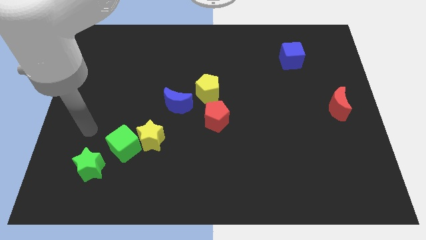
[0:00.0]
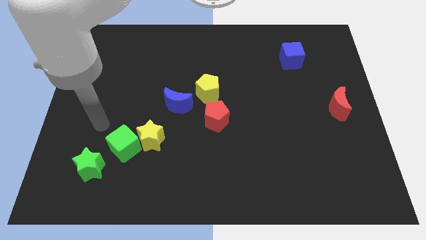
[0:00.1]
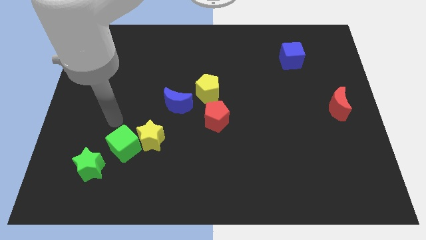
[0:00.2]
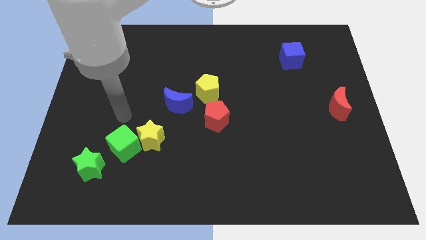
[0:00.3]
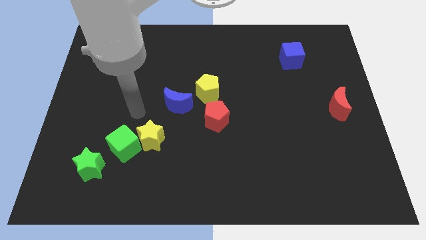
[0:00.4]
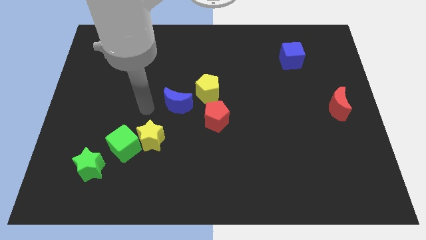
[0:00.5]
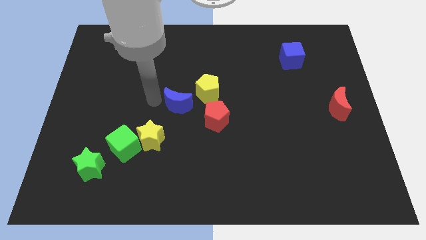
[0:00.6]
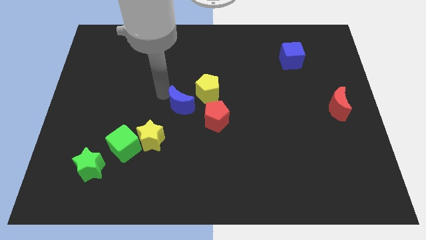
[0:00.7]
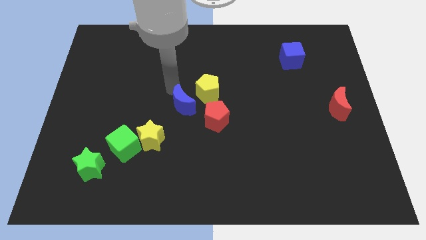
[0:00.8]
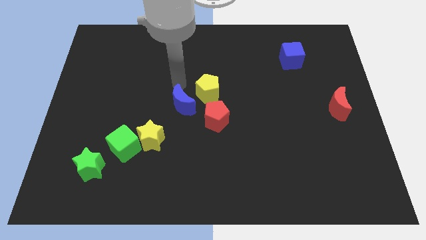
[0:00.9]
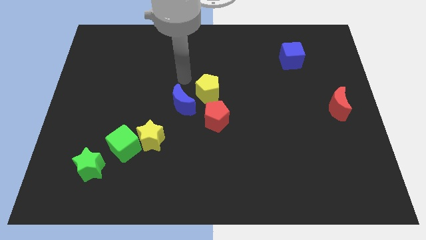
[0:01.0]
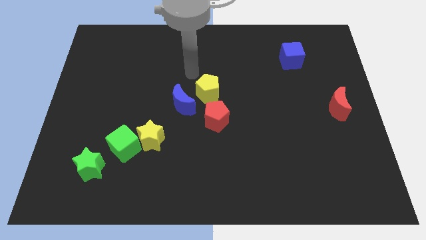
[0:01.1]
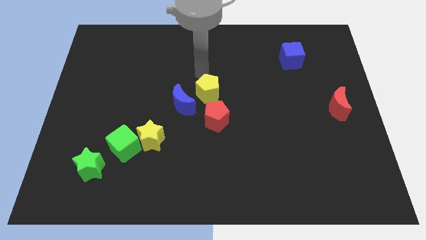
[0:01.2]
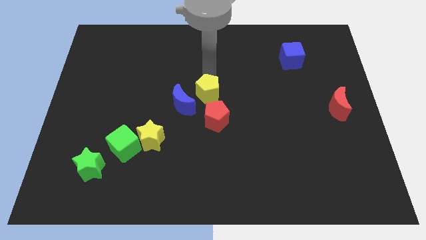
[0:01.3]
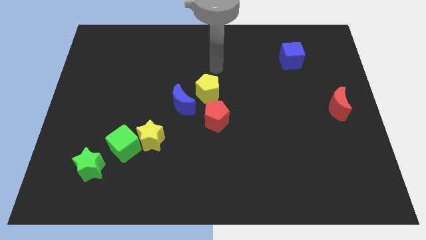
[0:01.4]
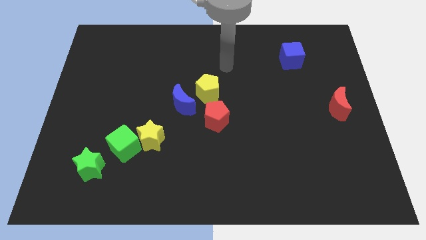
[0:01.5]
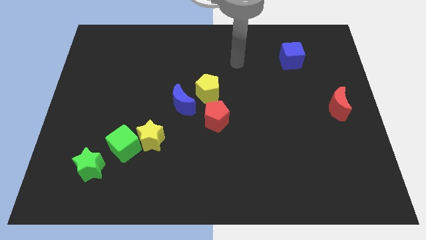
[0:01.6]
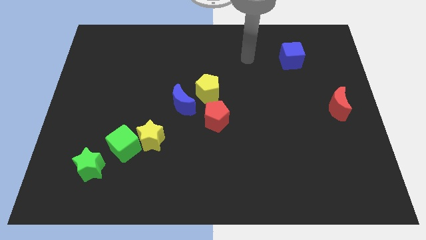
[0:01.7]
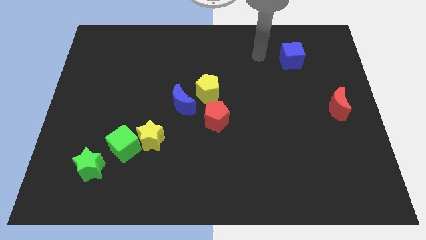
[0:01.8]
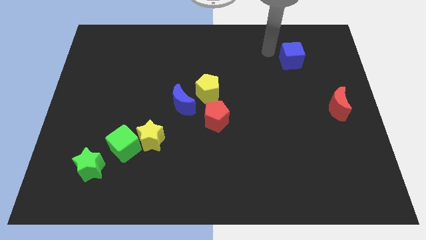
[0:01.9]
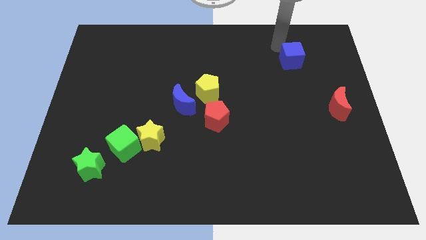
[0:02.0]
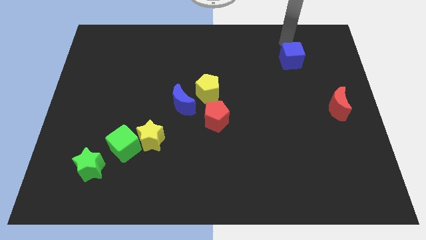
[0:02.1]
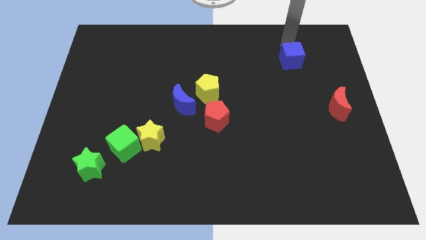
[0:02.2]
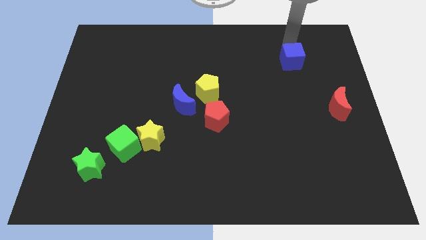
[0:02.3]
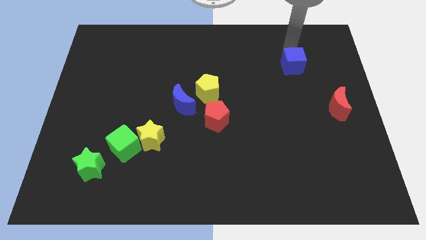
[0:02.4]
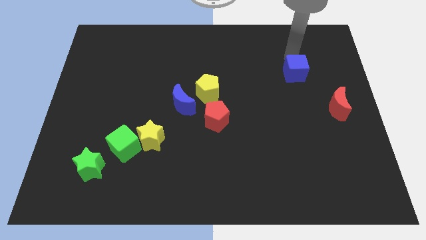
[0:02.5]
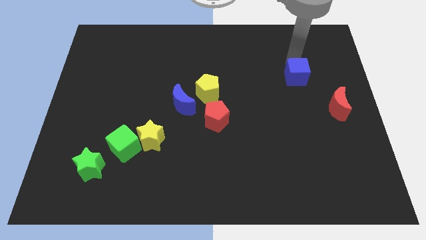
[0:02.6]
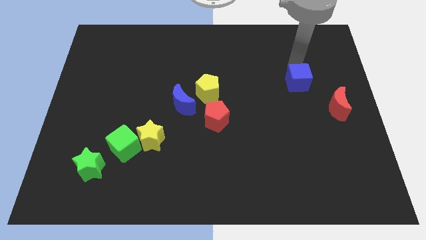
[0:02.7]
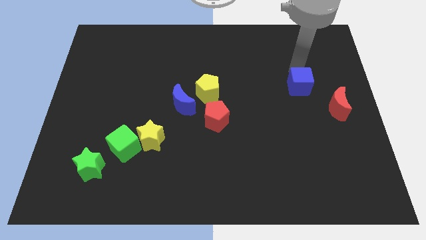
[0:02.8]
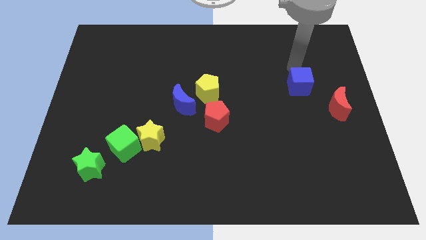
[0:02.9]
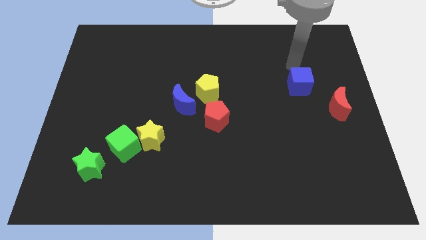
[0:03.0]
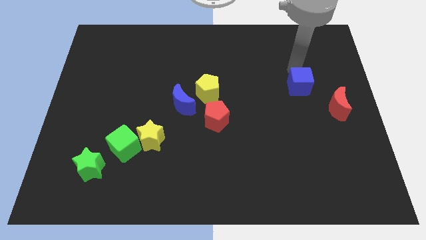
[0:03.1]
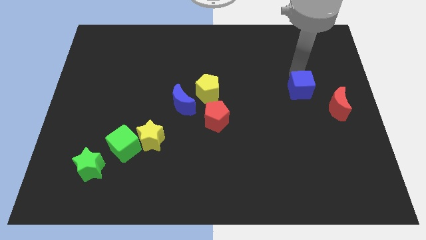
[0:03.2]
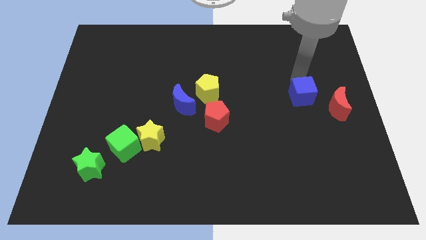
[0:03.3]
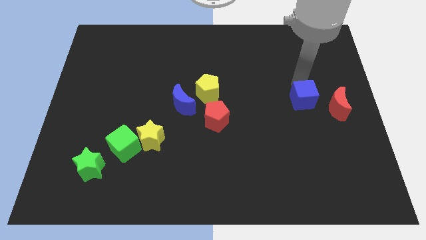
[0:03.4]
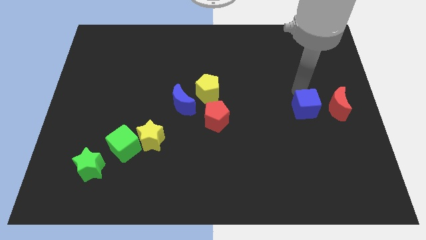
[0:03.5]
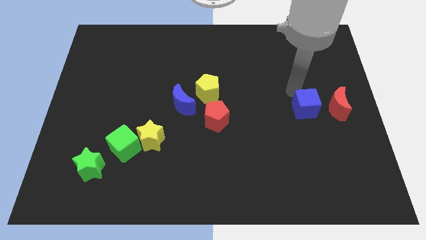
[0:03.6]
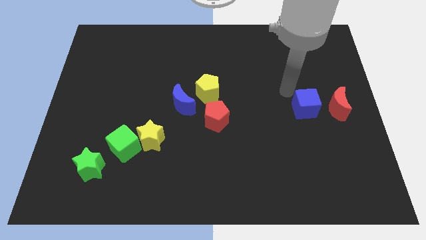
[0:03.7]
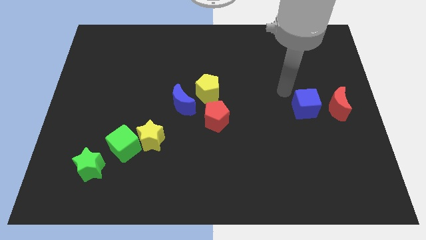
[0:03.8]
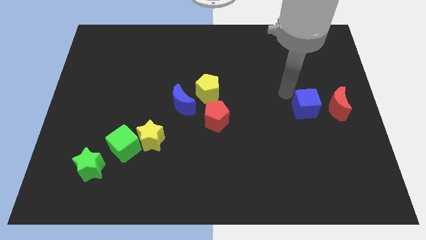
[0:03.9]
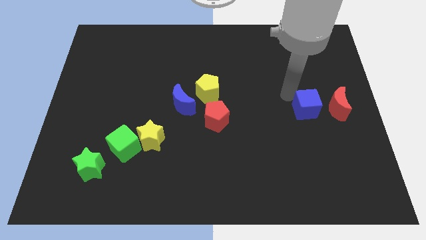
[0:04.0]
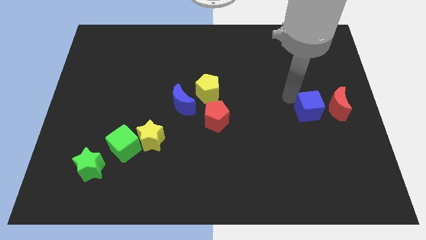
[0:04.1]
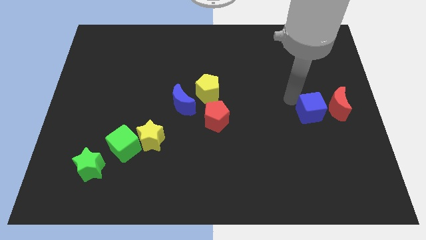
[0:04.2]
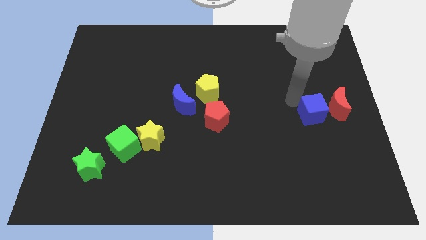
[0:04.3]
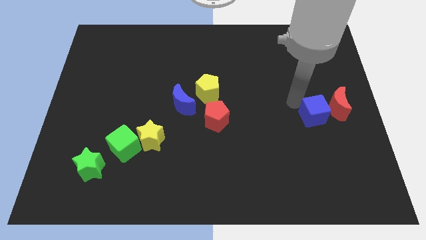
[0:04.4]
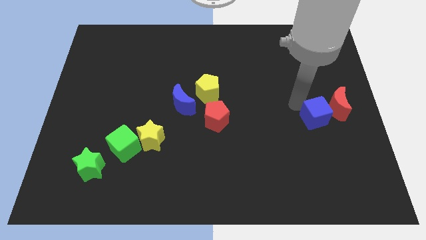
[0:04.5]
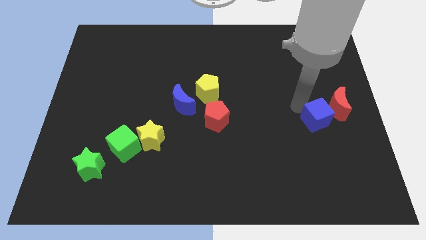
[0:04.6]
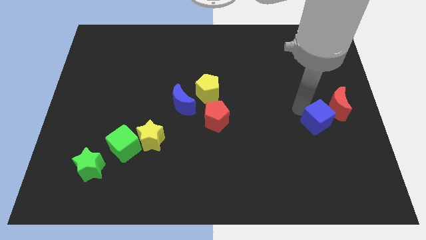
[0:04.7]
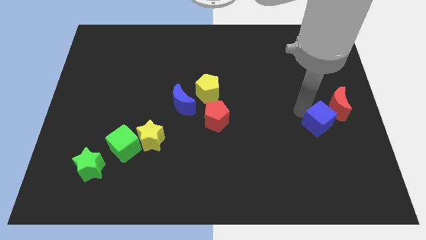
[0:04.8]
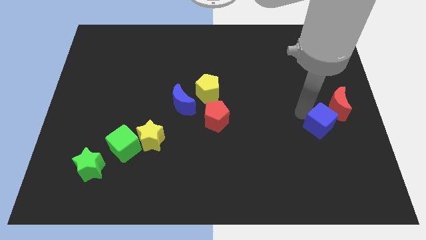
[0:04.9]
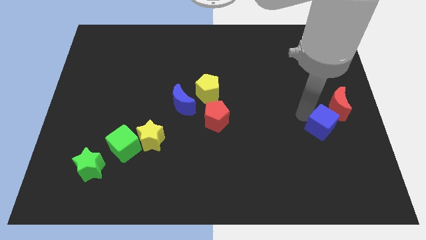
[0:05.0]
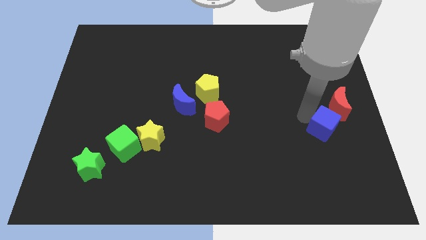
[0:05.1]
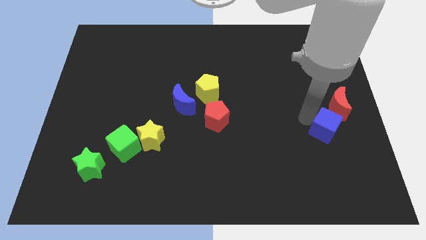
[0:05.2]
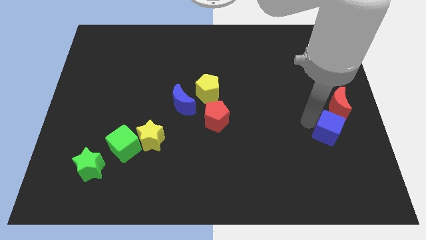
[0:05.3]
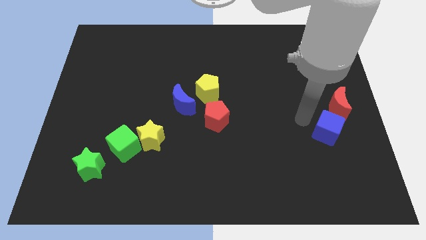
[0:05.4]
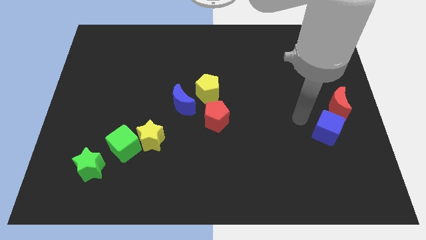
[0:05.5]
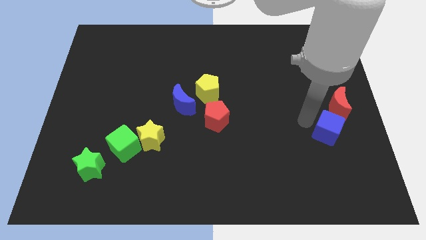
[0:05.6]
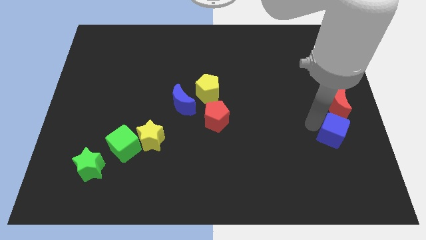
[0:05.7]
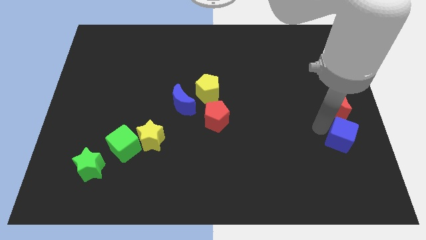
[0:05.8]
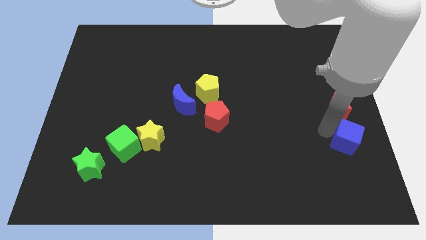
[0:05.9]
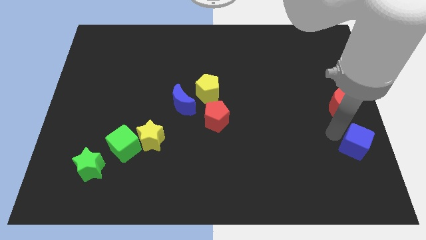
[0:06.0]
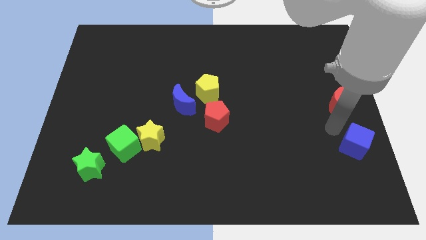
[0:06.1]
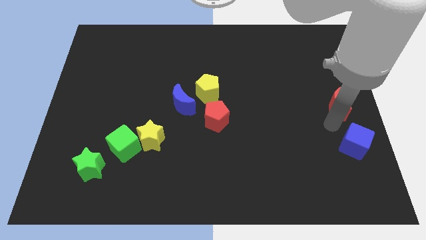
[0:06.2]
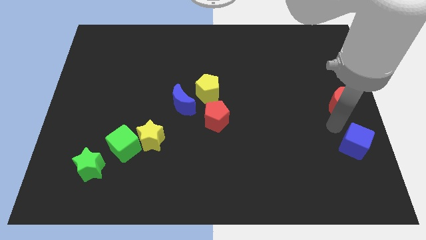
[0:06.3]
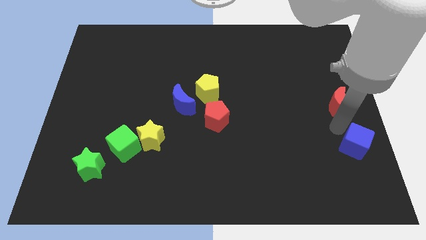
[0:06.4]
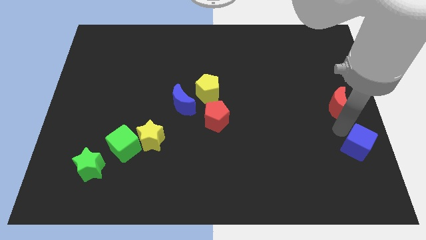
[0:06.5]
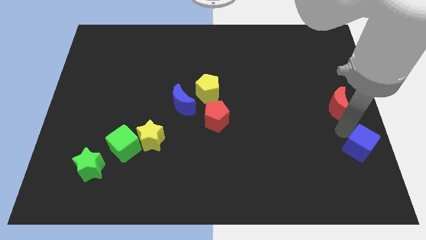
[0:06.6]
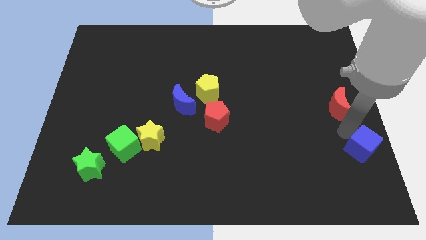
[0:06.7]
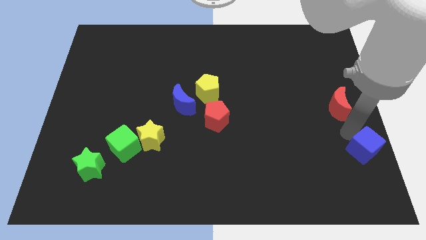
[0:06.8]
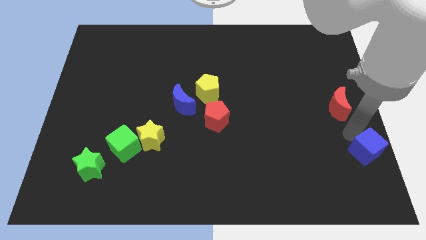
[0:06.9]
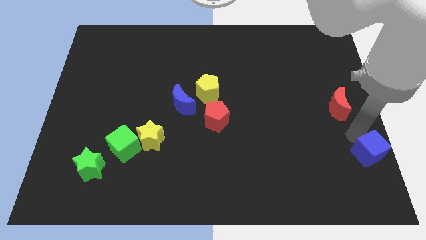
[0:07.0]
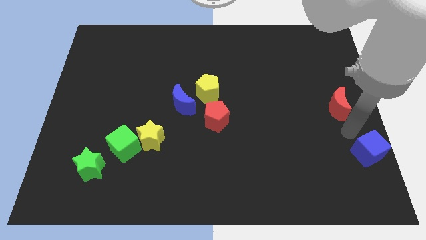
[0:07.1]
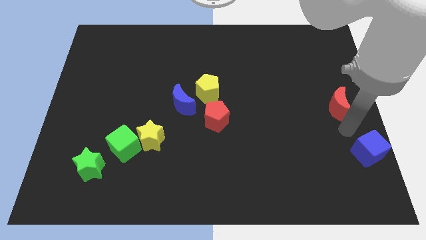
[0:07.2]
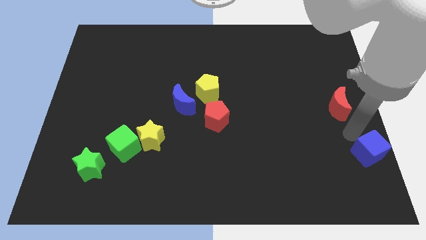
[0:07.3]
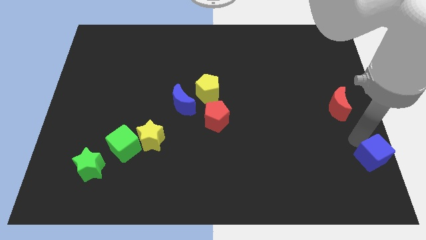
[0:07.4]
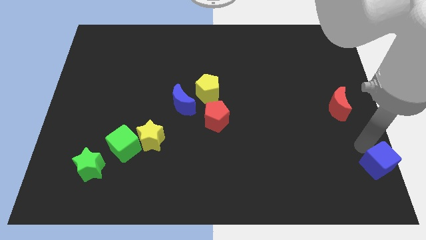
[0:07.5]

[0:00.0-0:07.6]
put the blue cube to the bottom right of the board
